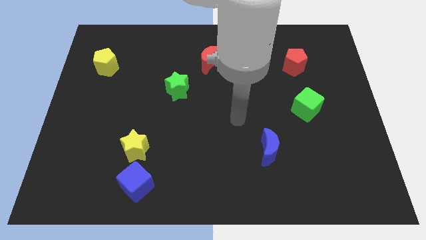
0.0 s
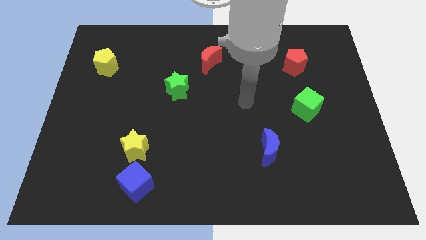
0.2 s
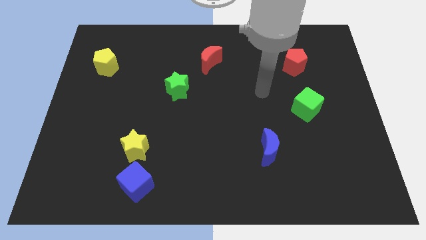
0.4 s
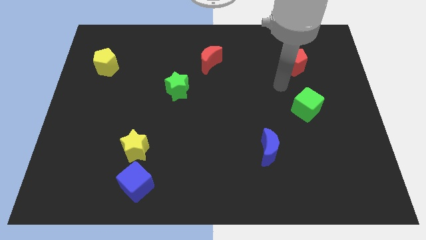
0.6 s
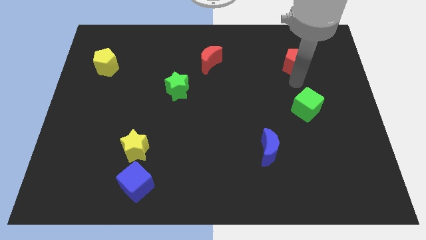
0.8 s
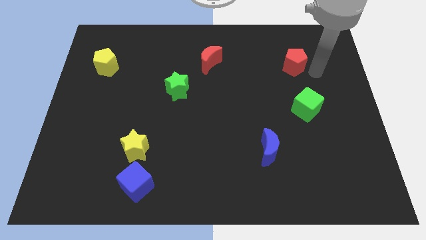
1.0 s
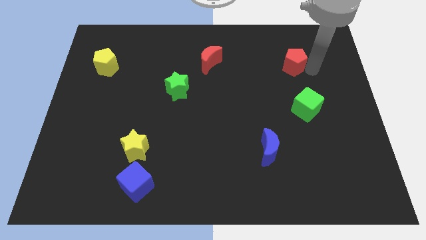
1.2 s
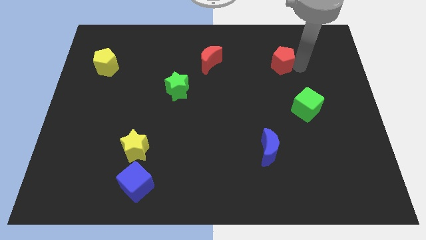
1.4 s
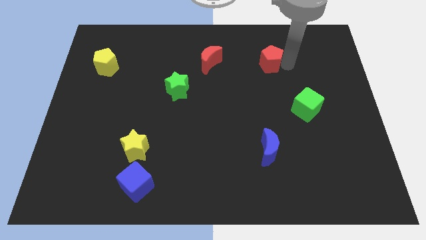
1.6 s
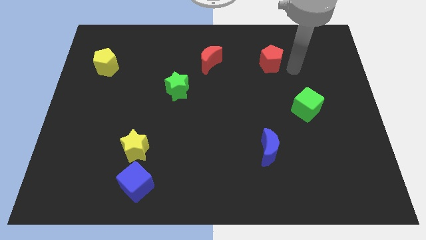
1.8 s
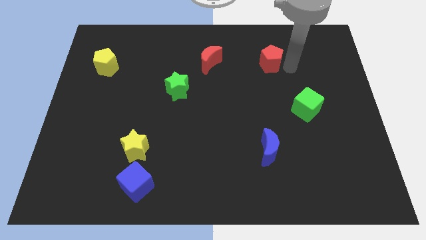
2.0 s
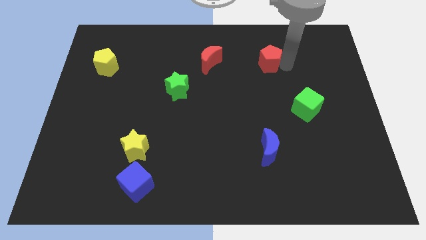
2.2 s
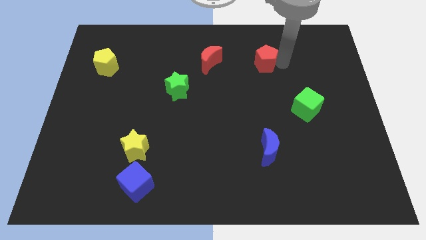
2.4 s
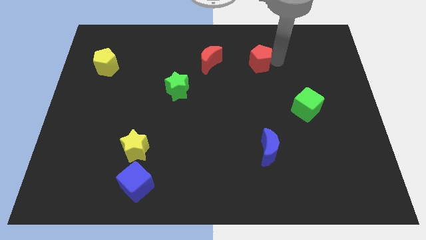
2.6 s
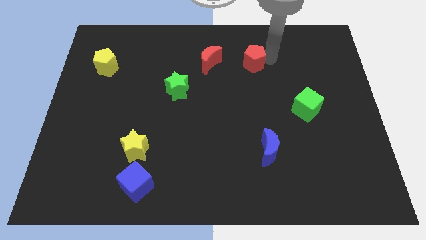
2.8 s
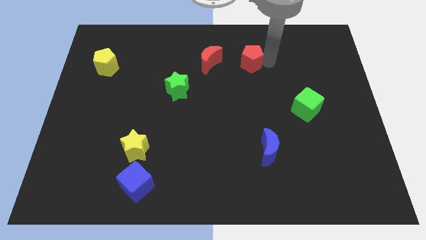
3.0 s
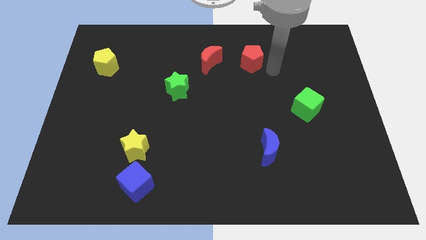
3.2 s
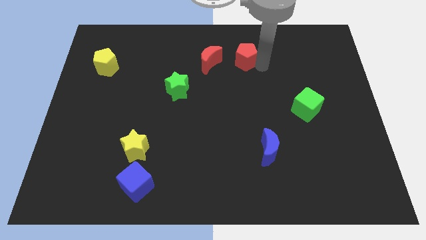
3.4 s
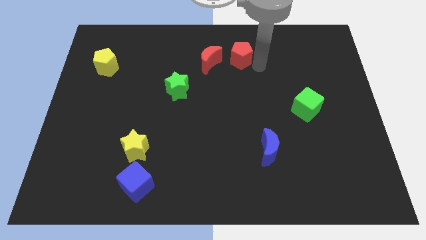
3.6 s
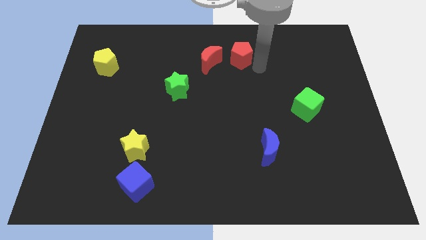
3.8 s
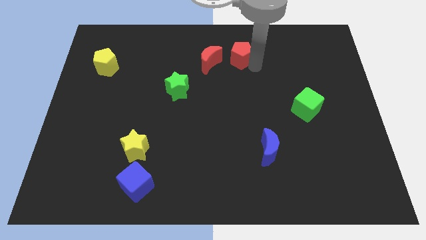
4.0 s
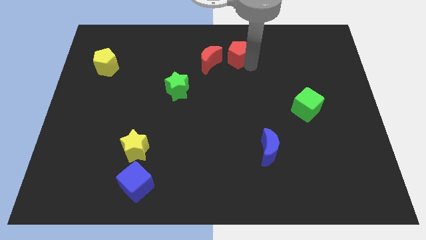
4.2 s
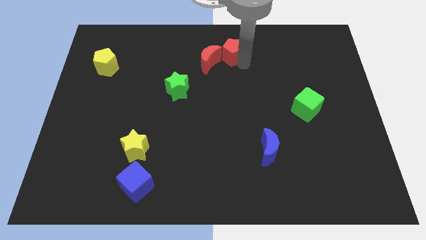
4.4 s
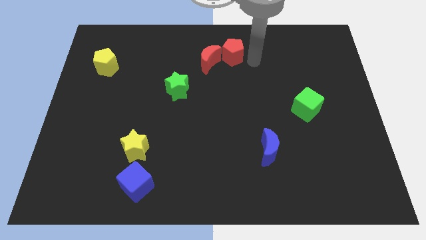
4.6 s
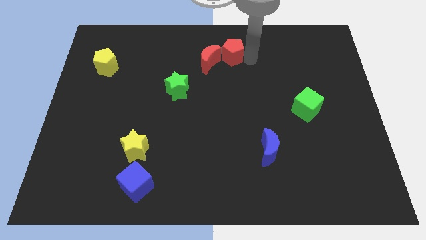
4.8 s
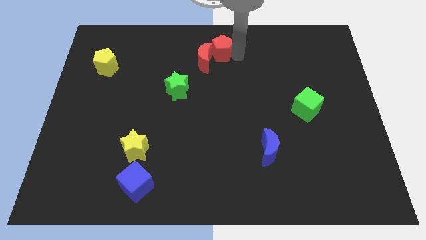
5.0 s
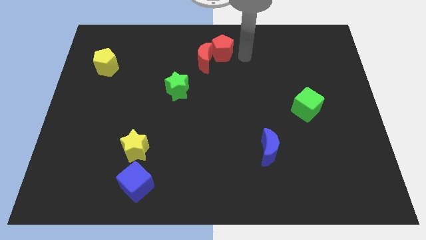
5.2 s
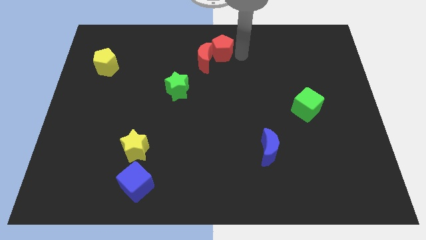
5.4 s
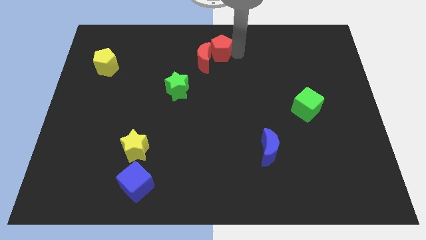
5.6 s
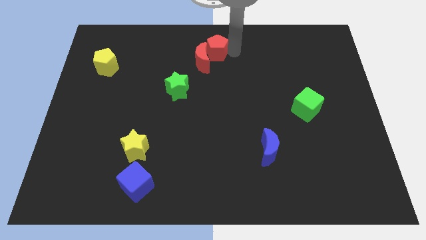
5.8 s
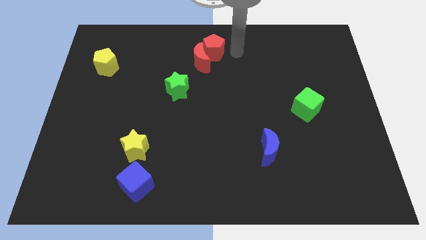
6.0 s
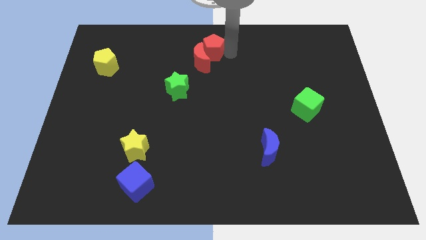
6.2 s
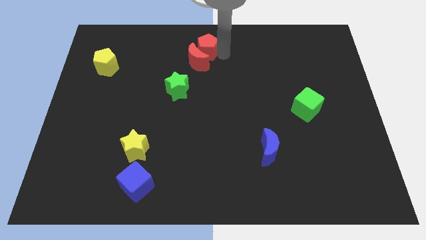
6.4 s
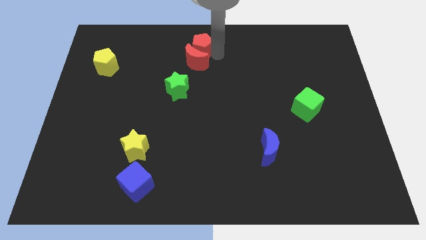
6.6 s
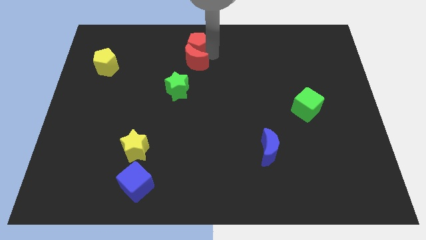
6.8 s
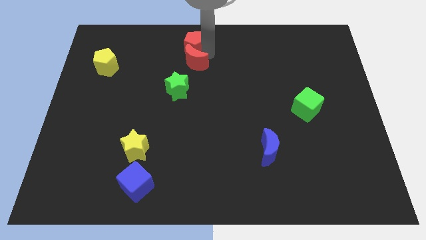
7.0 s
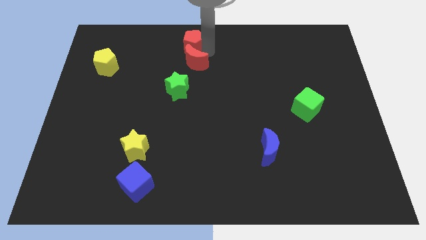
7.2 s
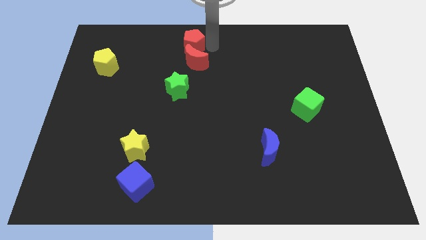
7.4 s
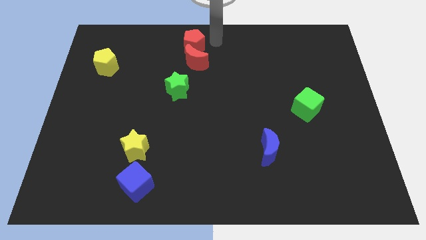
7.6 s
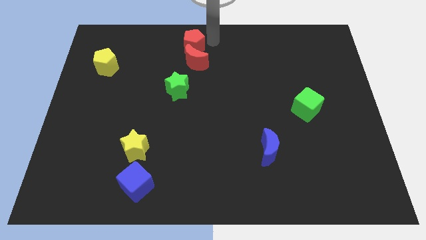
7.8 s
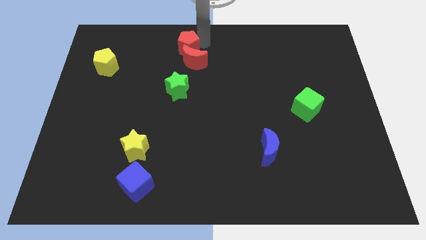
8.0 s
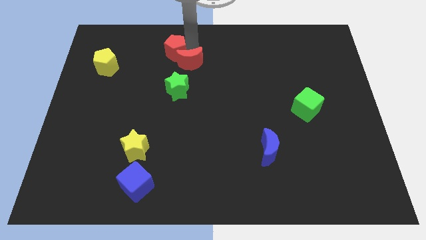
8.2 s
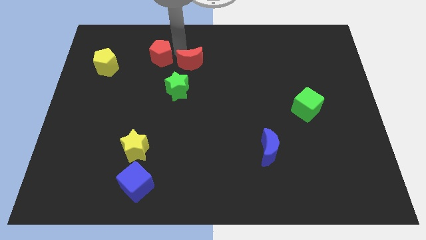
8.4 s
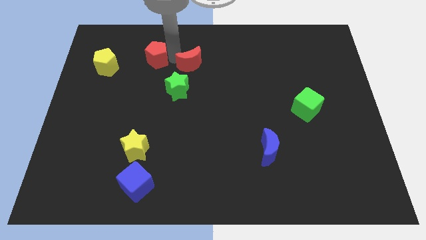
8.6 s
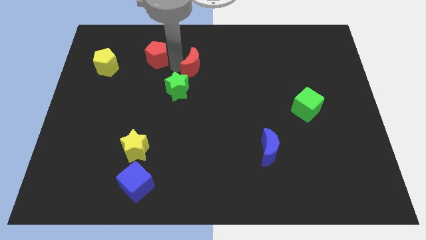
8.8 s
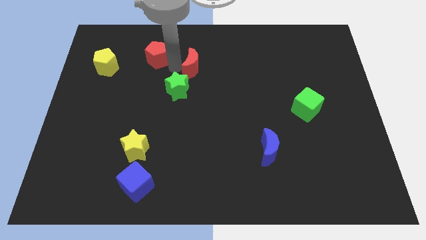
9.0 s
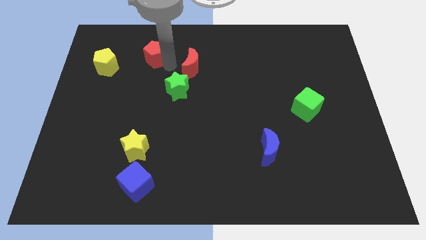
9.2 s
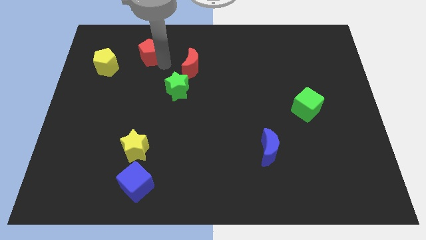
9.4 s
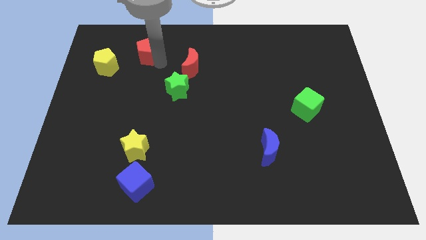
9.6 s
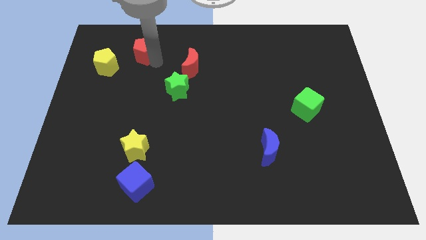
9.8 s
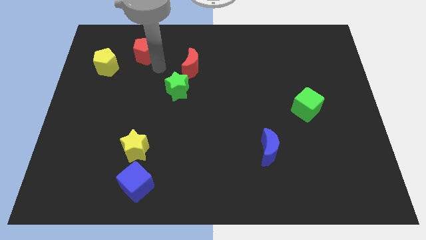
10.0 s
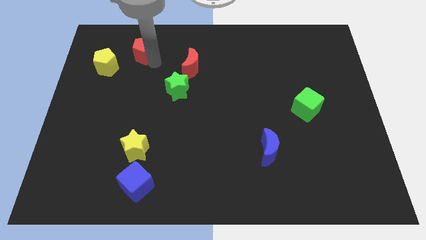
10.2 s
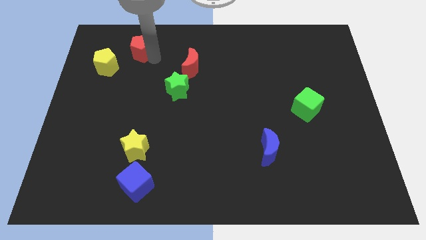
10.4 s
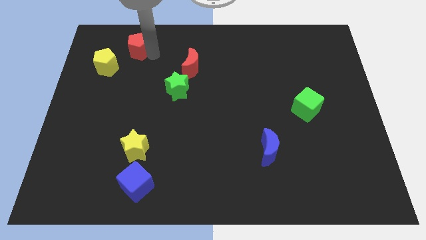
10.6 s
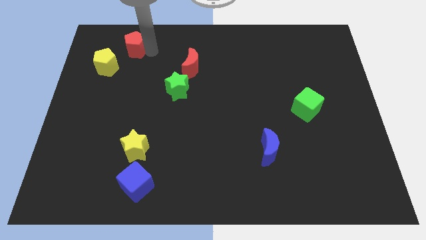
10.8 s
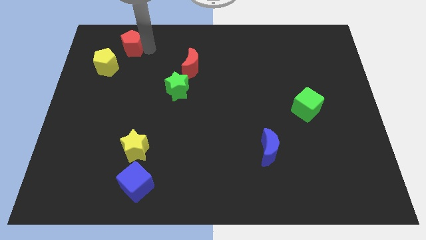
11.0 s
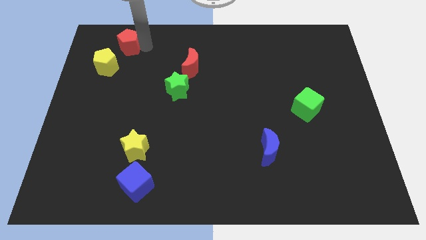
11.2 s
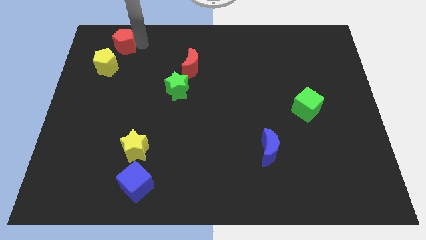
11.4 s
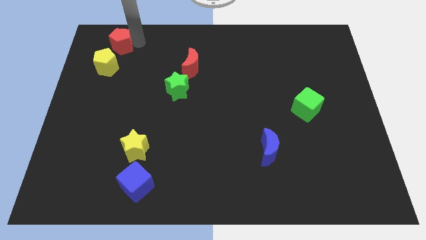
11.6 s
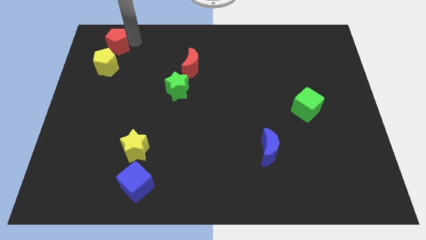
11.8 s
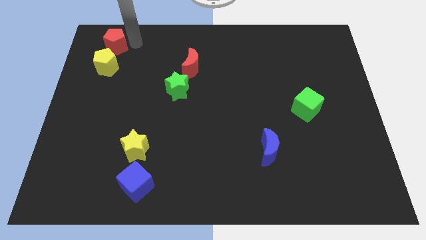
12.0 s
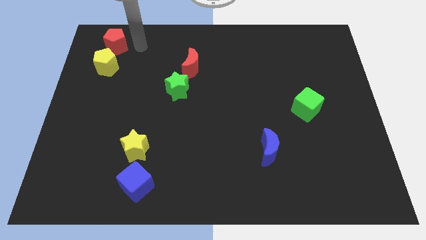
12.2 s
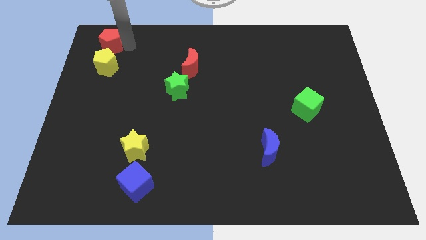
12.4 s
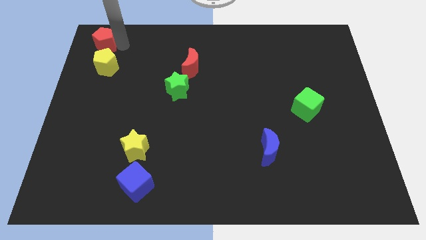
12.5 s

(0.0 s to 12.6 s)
slide the red pentagon to the top left
